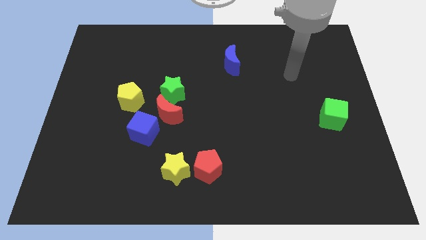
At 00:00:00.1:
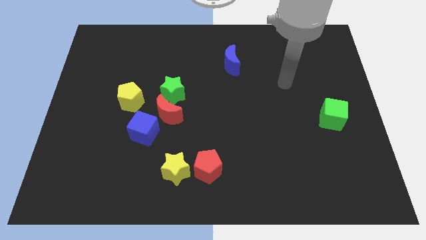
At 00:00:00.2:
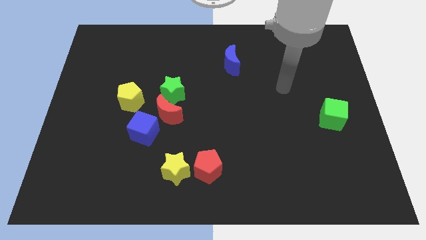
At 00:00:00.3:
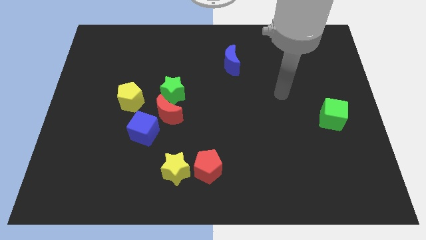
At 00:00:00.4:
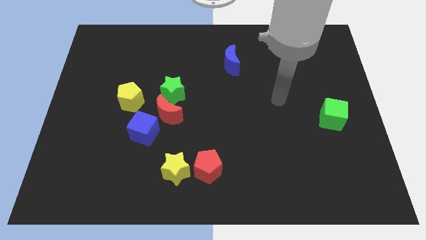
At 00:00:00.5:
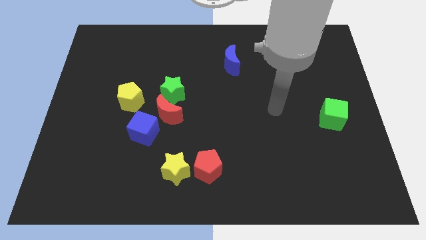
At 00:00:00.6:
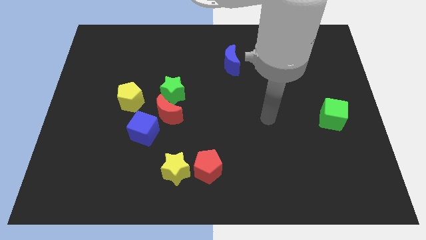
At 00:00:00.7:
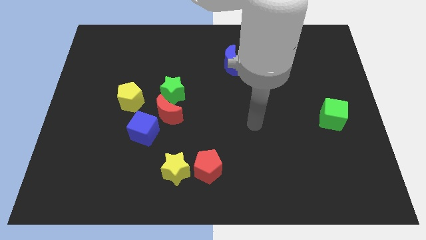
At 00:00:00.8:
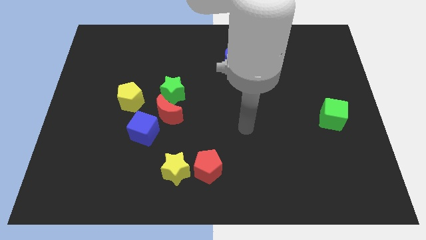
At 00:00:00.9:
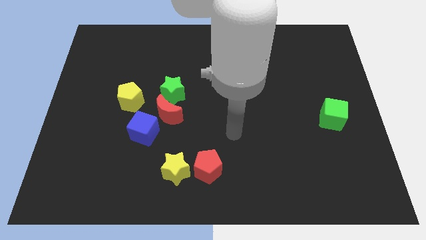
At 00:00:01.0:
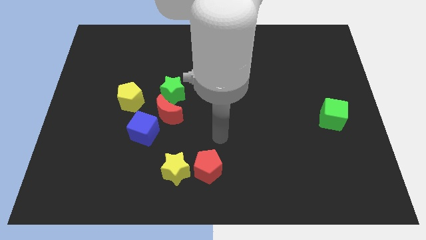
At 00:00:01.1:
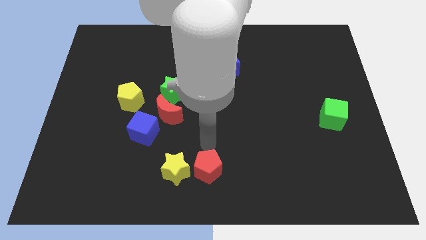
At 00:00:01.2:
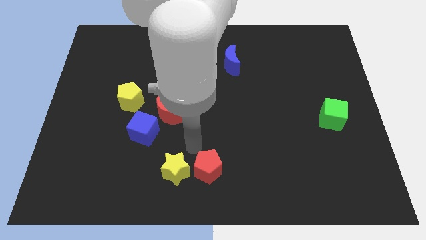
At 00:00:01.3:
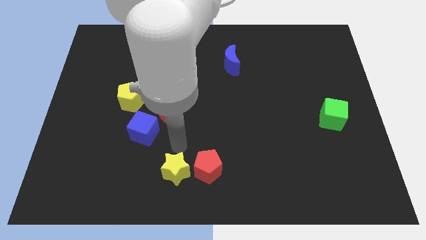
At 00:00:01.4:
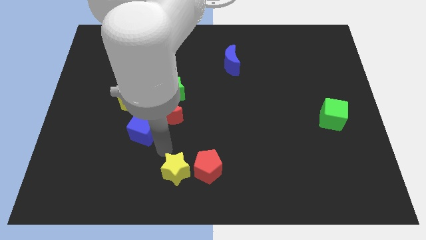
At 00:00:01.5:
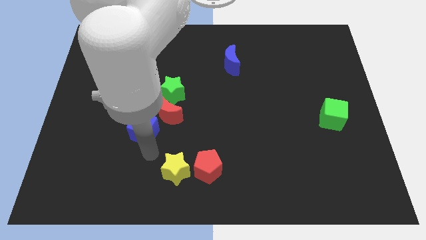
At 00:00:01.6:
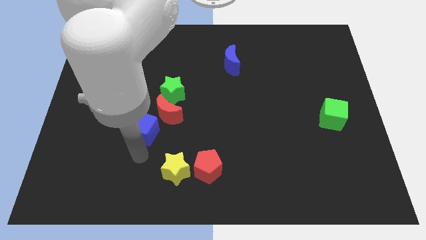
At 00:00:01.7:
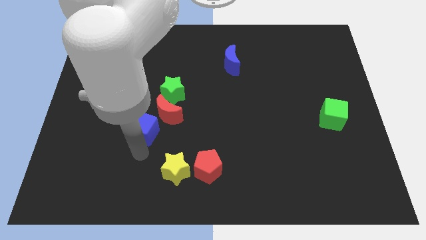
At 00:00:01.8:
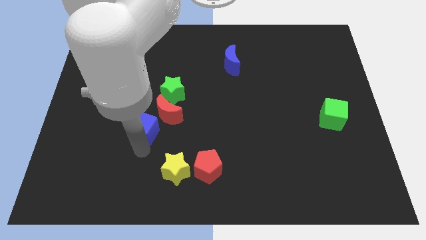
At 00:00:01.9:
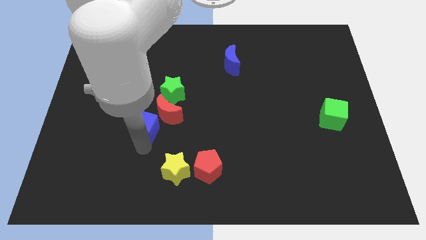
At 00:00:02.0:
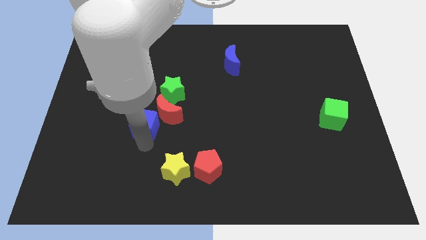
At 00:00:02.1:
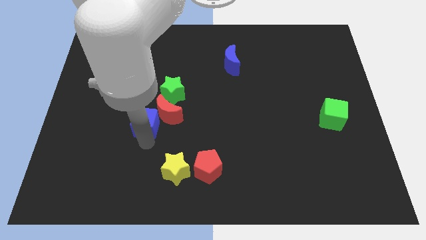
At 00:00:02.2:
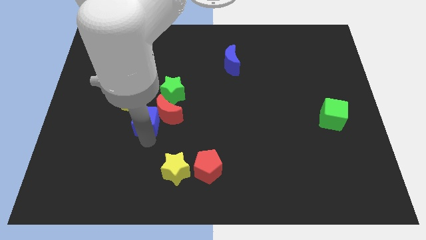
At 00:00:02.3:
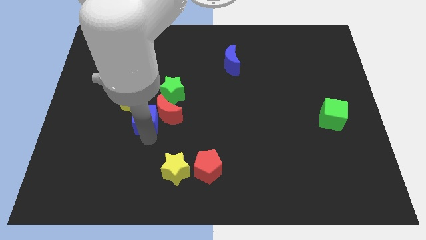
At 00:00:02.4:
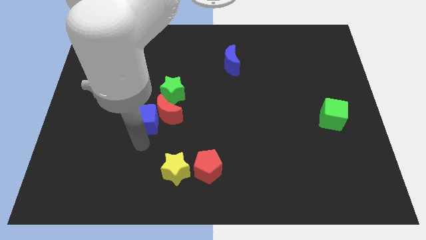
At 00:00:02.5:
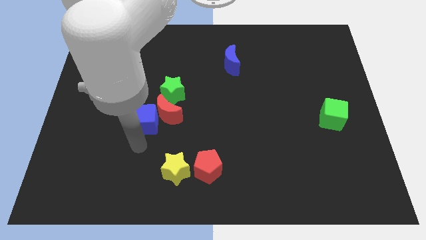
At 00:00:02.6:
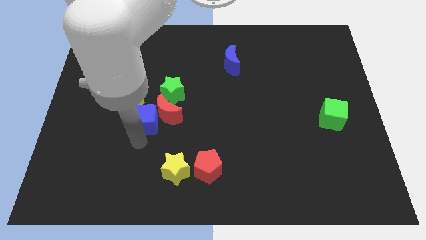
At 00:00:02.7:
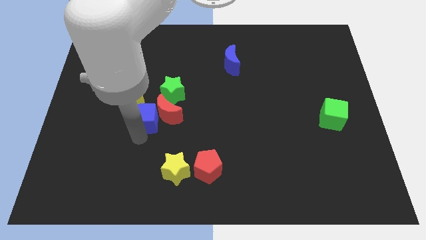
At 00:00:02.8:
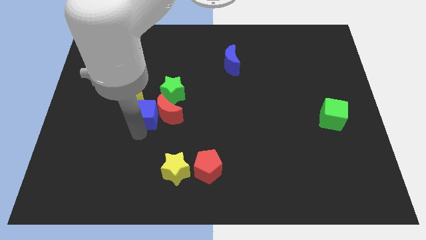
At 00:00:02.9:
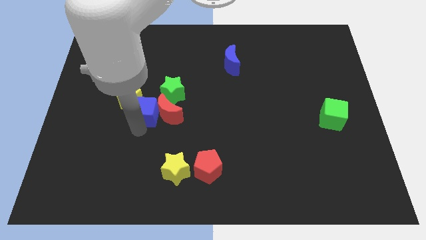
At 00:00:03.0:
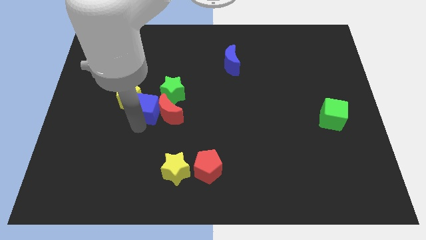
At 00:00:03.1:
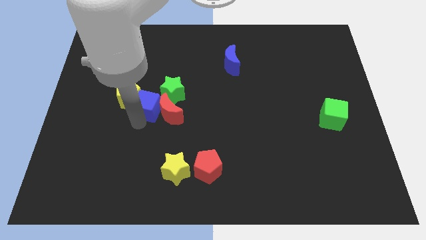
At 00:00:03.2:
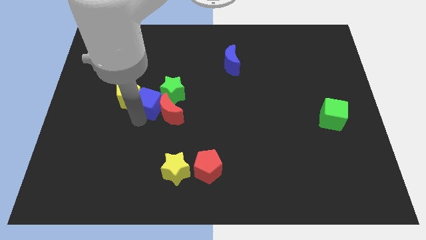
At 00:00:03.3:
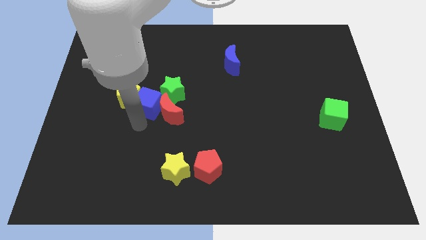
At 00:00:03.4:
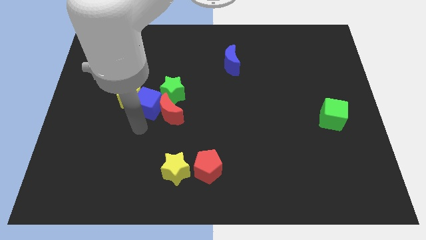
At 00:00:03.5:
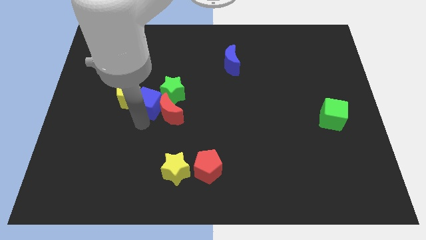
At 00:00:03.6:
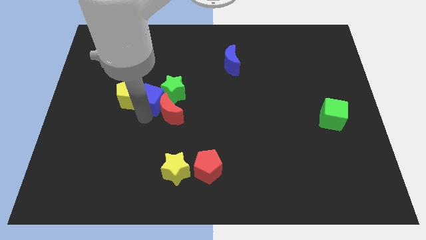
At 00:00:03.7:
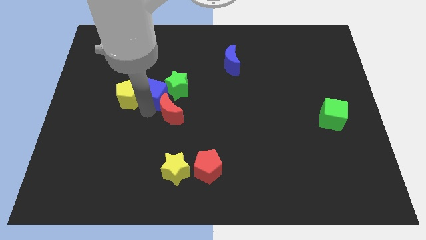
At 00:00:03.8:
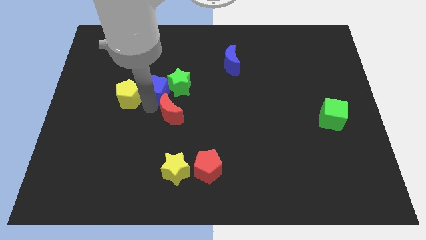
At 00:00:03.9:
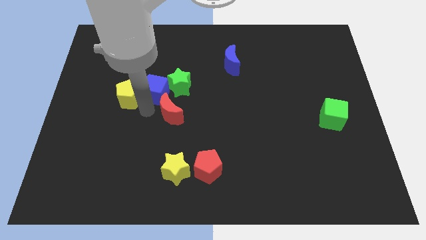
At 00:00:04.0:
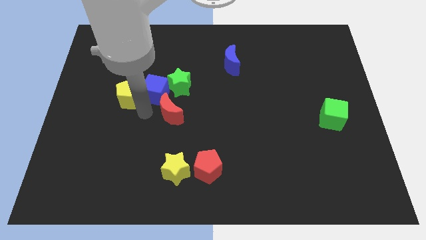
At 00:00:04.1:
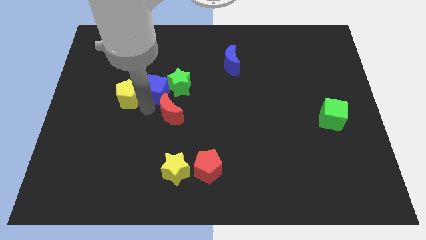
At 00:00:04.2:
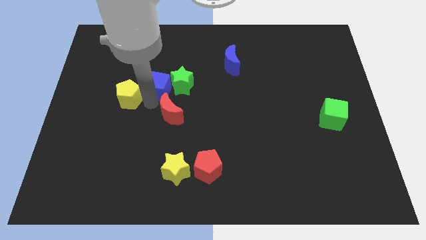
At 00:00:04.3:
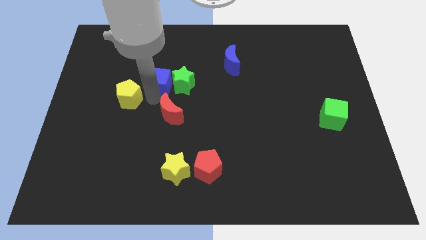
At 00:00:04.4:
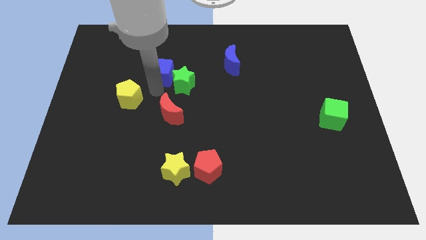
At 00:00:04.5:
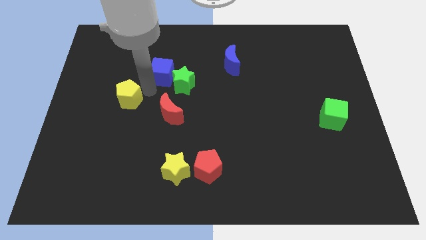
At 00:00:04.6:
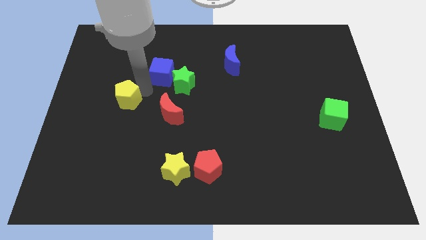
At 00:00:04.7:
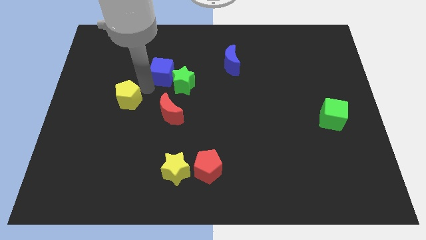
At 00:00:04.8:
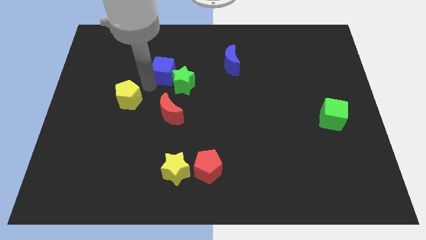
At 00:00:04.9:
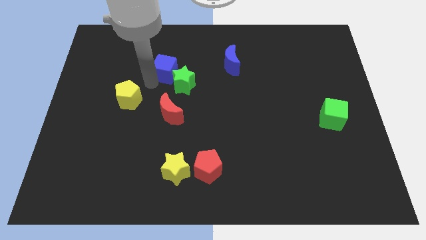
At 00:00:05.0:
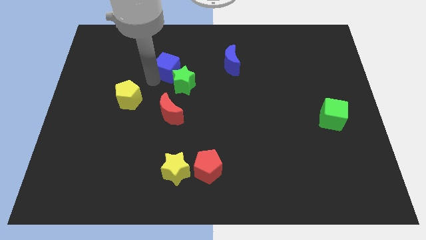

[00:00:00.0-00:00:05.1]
push the blue cube to the top side of the green star
